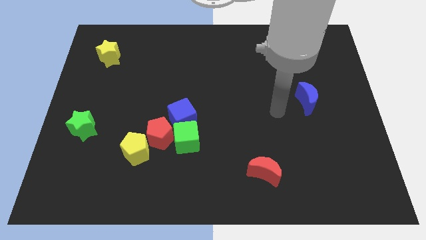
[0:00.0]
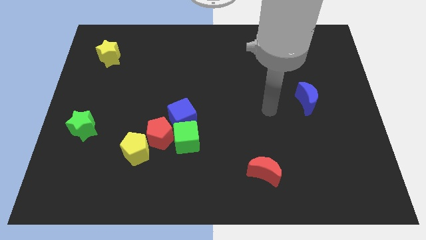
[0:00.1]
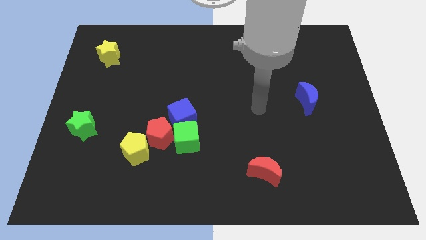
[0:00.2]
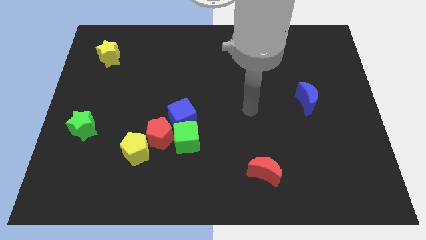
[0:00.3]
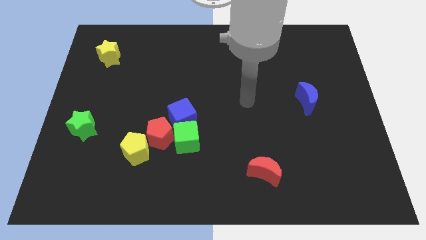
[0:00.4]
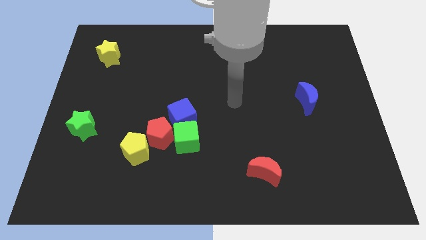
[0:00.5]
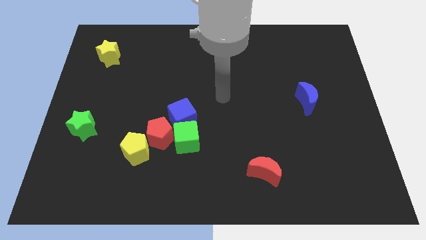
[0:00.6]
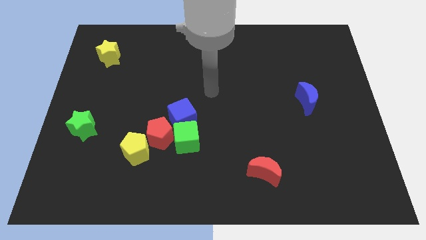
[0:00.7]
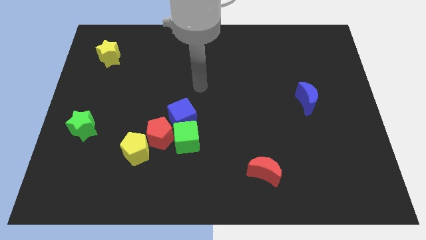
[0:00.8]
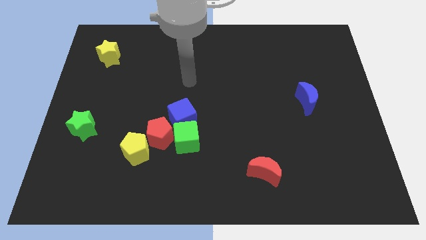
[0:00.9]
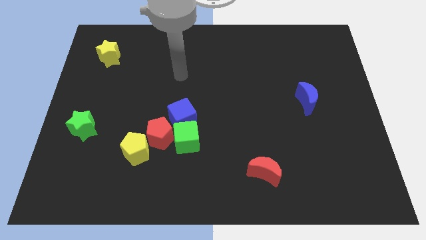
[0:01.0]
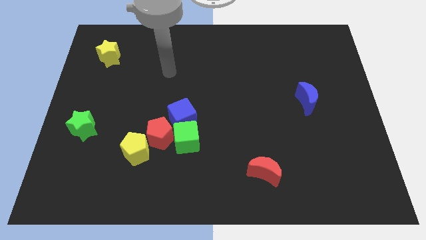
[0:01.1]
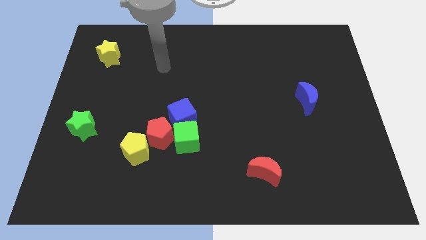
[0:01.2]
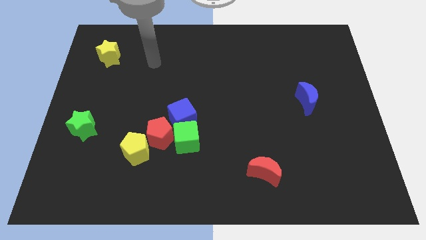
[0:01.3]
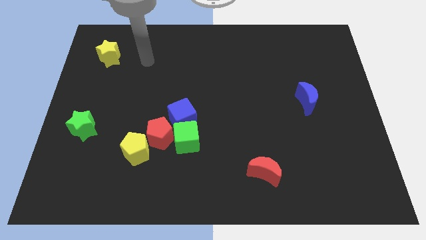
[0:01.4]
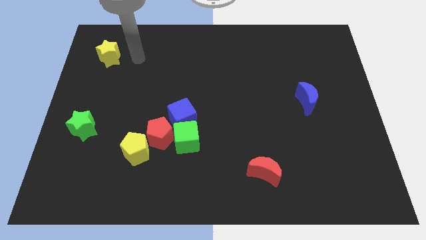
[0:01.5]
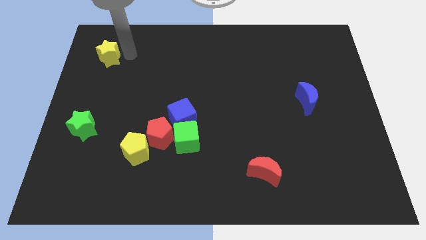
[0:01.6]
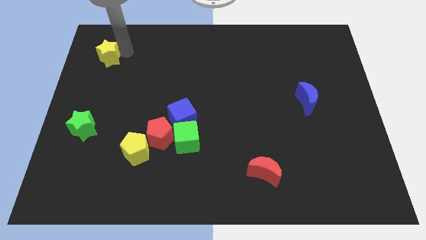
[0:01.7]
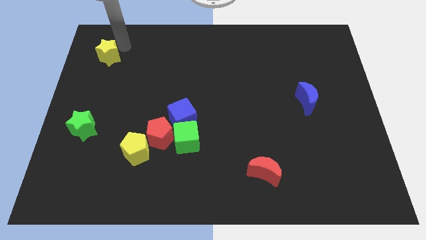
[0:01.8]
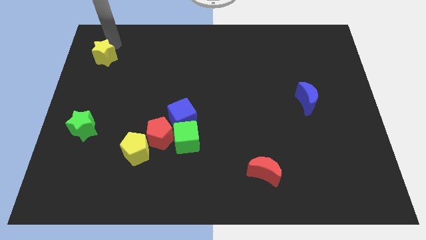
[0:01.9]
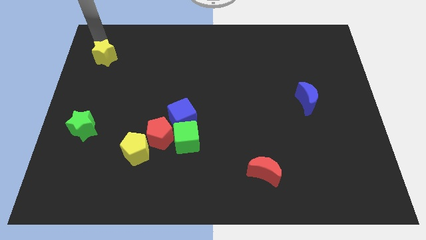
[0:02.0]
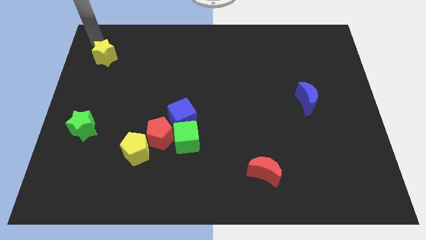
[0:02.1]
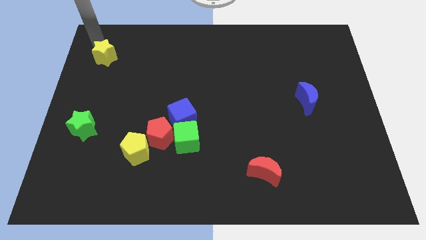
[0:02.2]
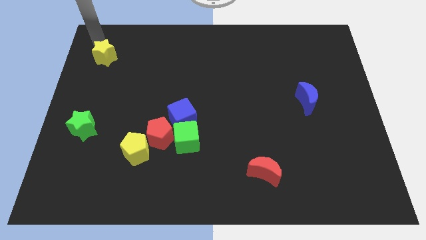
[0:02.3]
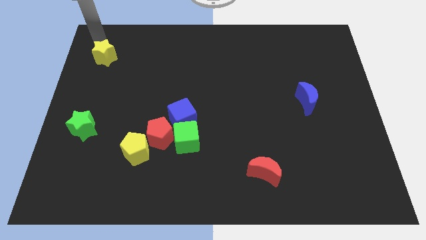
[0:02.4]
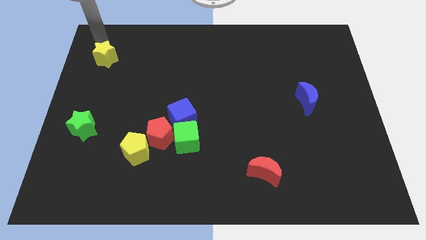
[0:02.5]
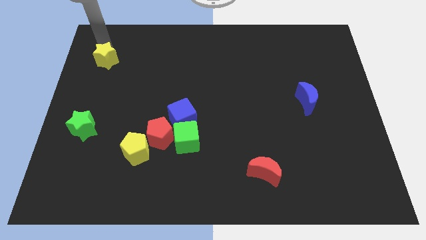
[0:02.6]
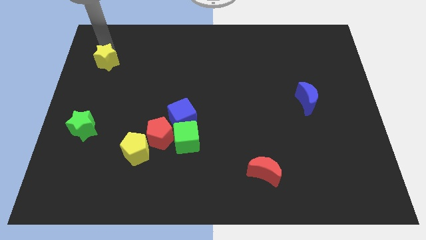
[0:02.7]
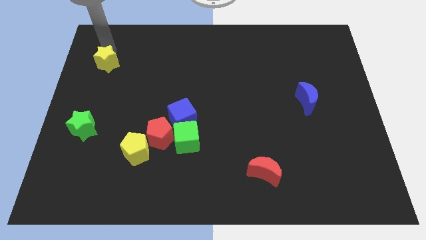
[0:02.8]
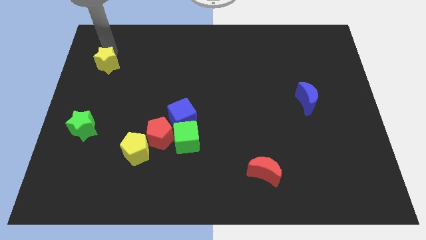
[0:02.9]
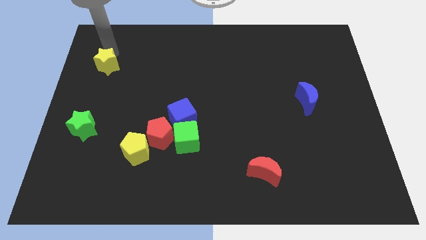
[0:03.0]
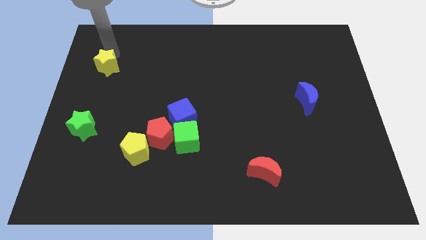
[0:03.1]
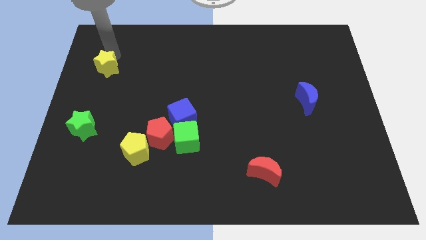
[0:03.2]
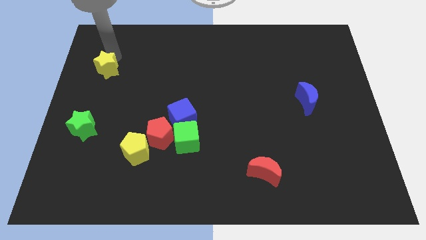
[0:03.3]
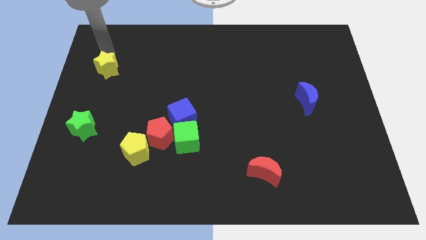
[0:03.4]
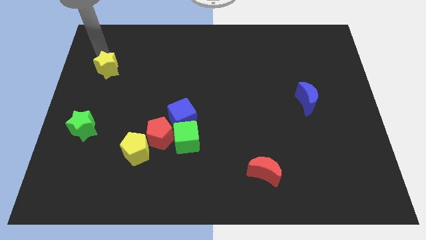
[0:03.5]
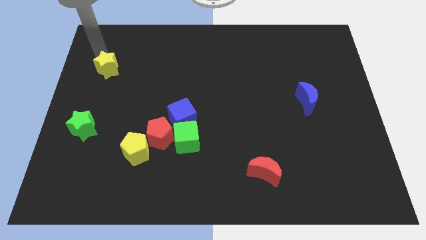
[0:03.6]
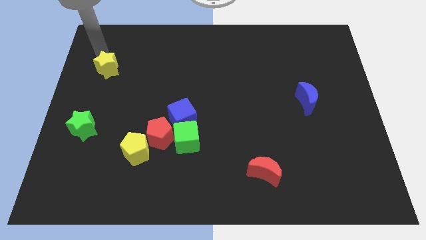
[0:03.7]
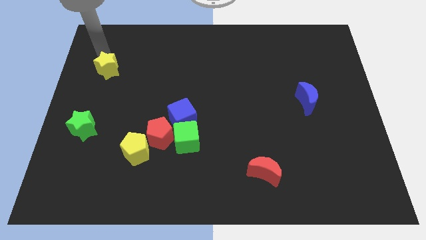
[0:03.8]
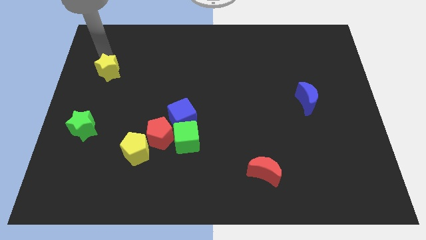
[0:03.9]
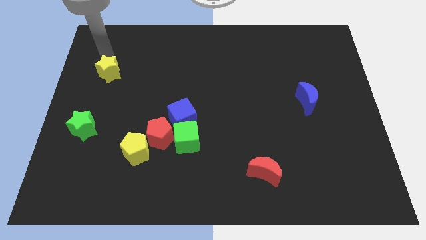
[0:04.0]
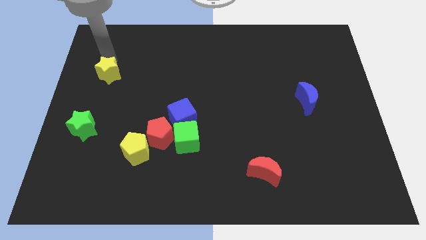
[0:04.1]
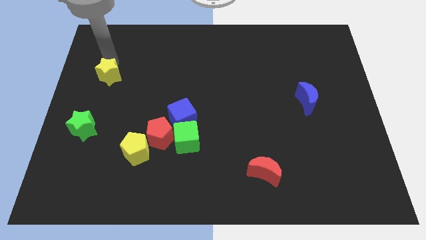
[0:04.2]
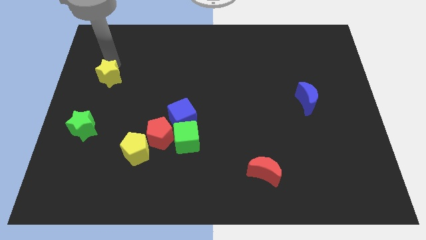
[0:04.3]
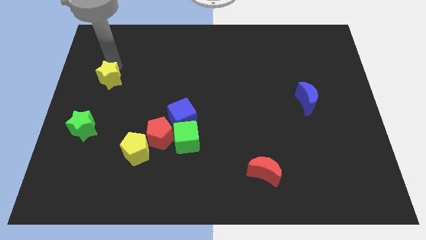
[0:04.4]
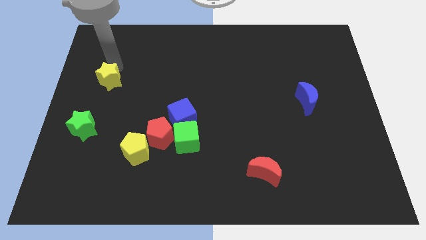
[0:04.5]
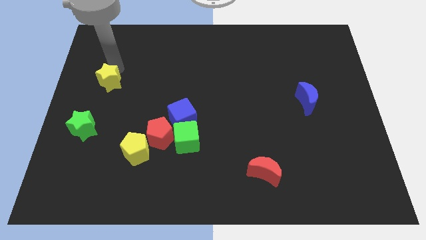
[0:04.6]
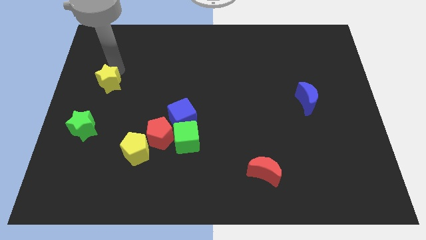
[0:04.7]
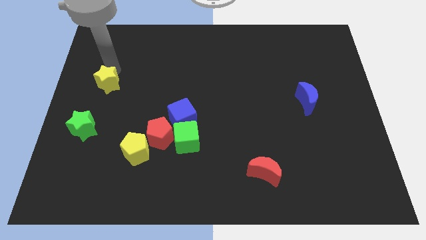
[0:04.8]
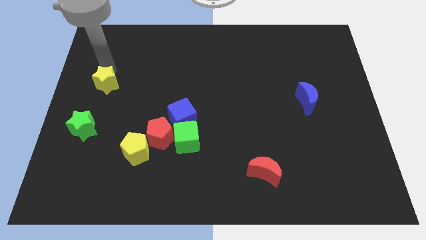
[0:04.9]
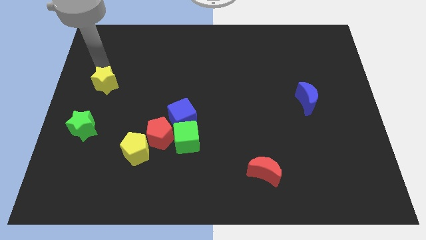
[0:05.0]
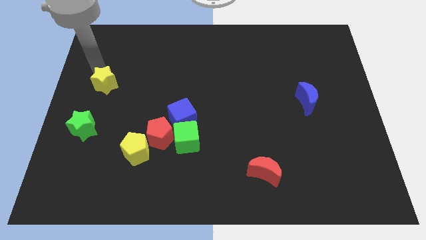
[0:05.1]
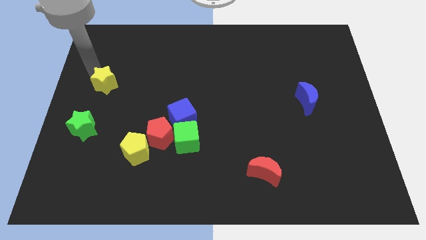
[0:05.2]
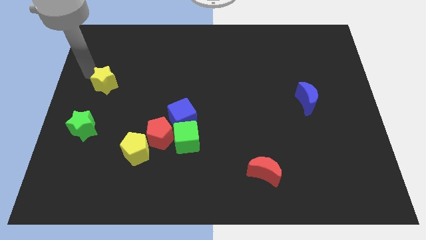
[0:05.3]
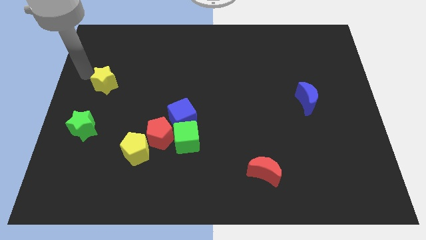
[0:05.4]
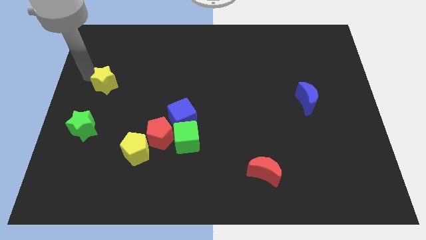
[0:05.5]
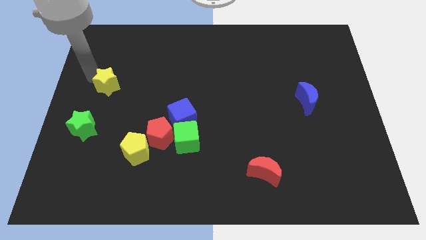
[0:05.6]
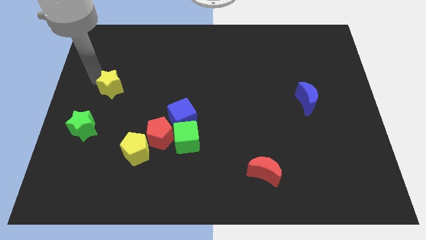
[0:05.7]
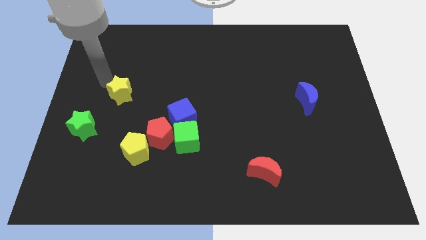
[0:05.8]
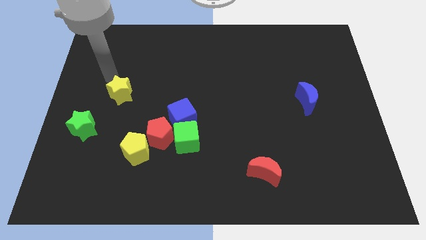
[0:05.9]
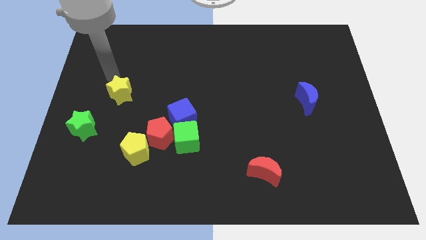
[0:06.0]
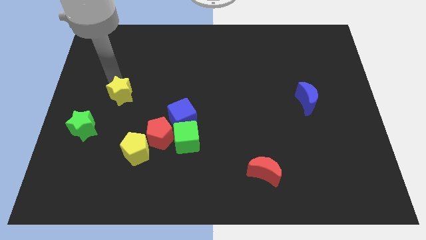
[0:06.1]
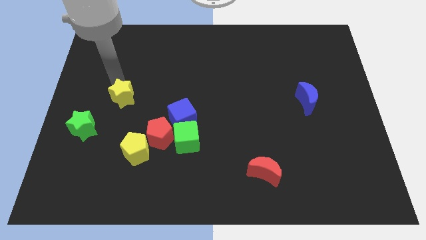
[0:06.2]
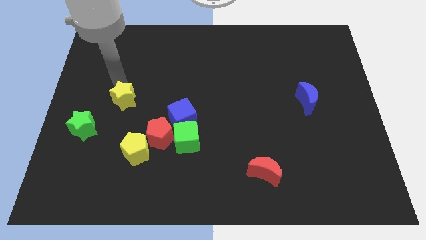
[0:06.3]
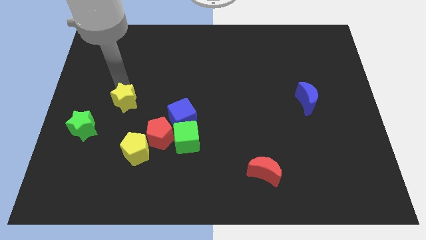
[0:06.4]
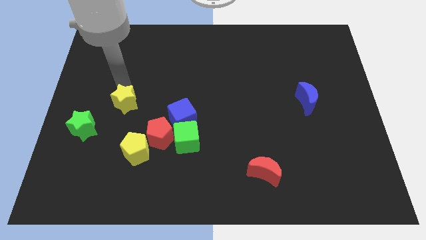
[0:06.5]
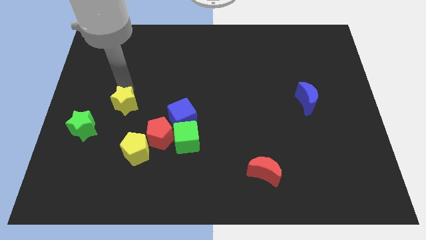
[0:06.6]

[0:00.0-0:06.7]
slide the yellow star to the left of the blue cube

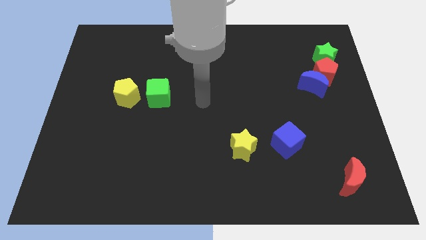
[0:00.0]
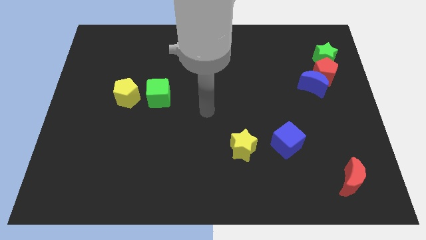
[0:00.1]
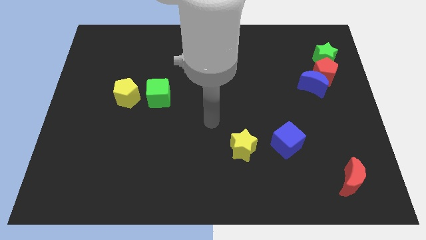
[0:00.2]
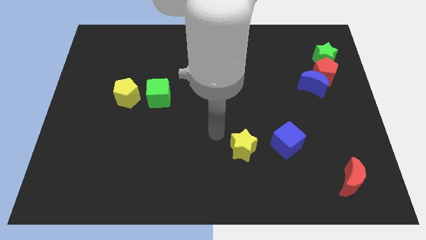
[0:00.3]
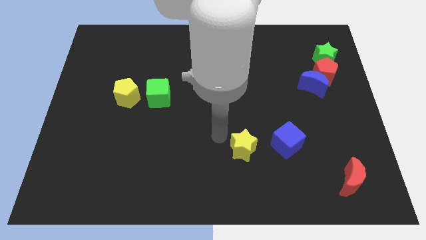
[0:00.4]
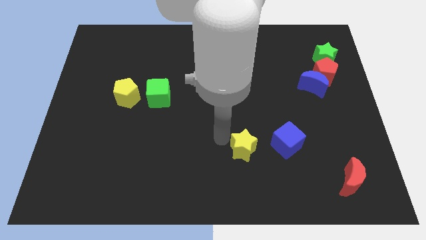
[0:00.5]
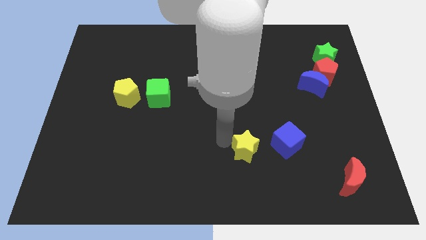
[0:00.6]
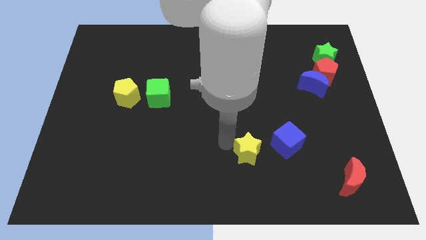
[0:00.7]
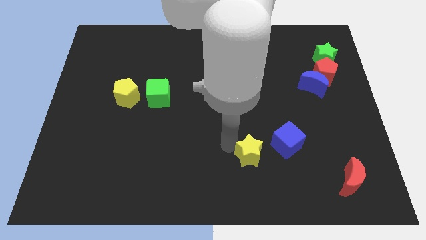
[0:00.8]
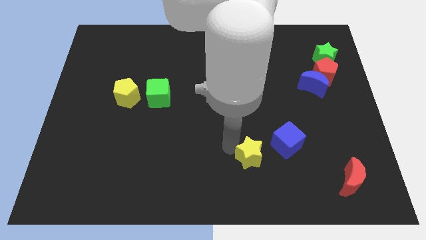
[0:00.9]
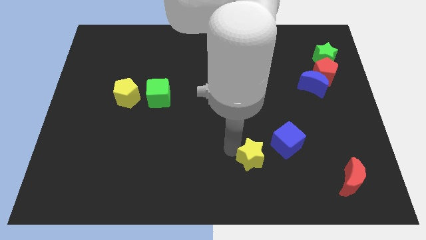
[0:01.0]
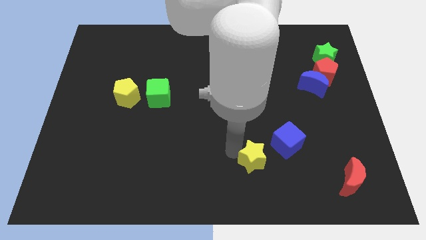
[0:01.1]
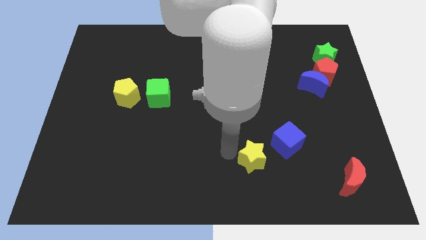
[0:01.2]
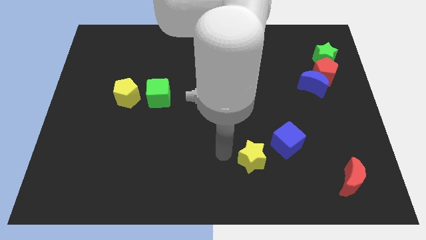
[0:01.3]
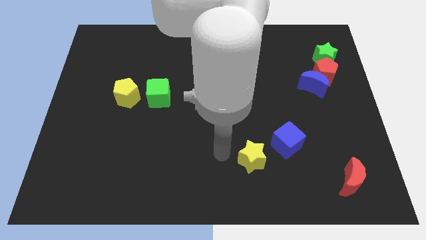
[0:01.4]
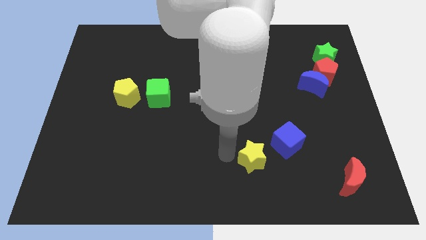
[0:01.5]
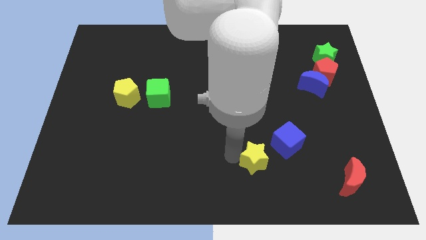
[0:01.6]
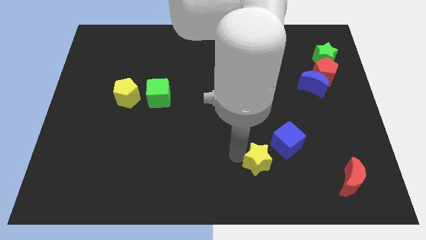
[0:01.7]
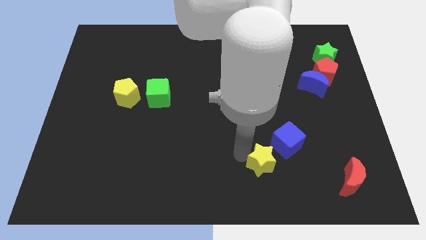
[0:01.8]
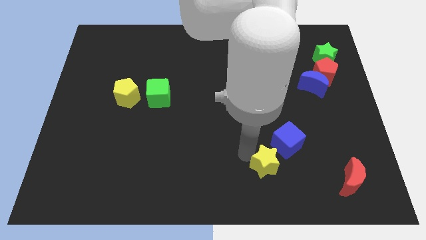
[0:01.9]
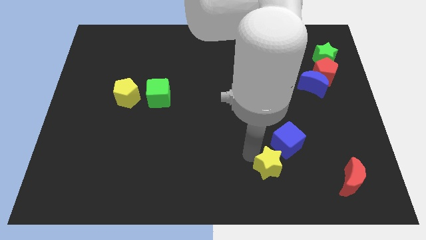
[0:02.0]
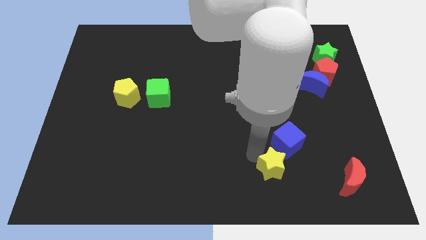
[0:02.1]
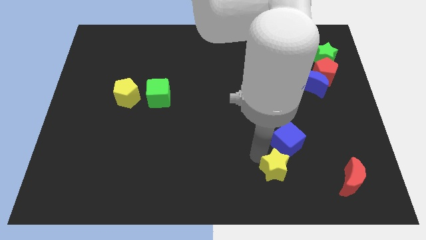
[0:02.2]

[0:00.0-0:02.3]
put the yellow star just left of the red moon
